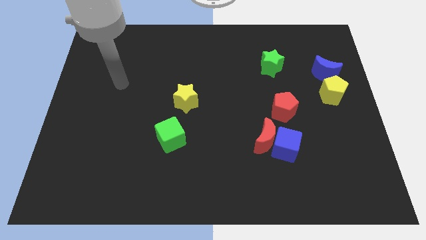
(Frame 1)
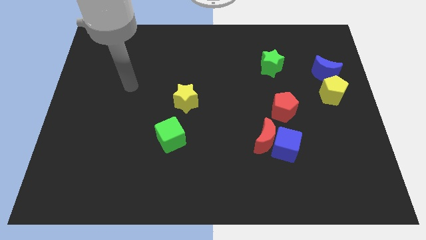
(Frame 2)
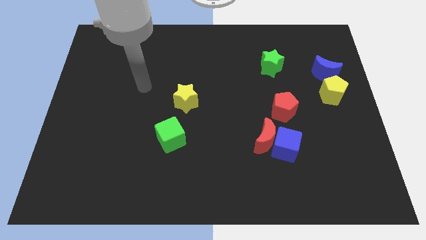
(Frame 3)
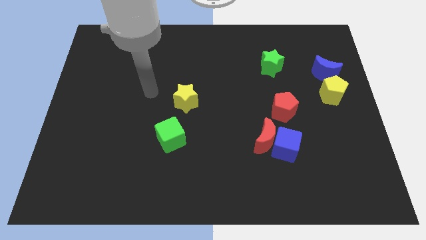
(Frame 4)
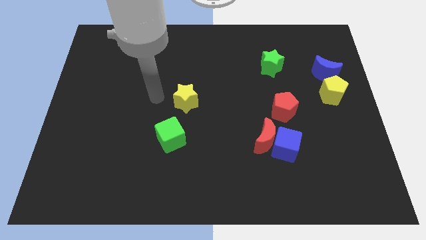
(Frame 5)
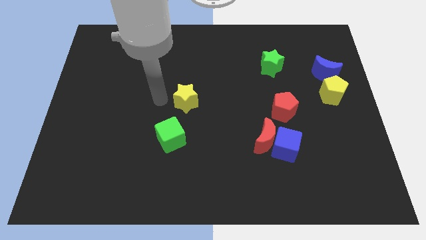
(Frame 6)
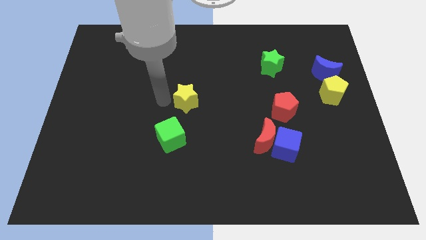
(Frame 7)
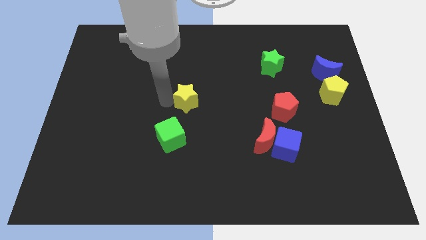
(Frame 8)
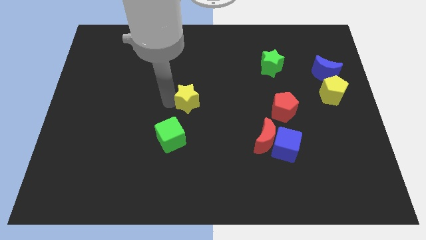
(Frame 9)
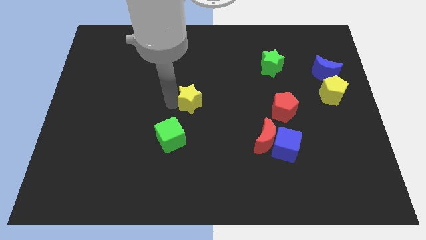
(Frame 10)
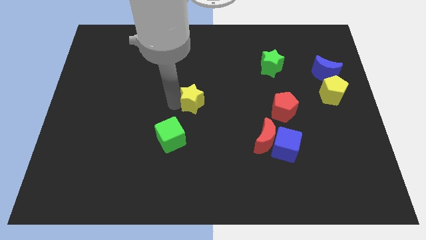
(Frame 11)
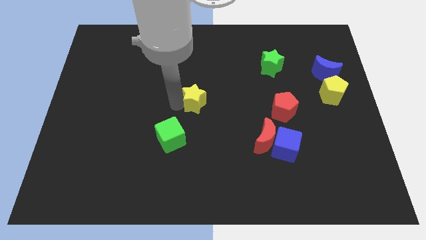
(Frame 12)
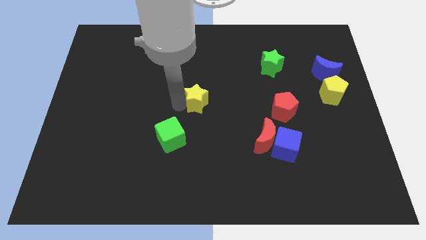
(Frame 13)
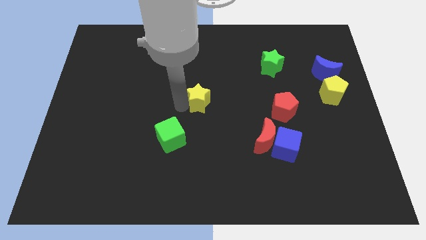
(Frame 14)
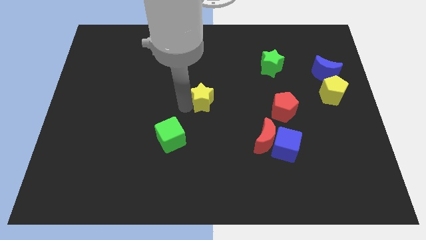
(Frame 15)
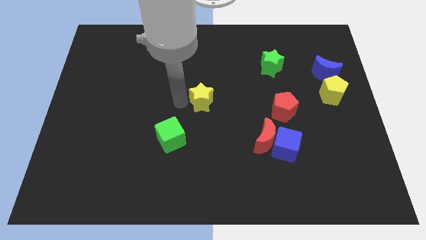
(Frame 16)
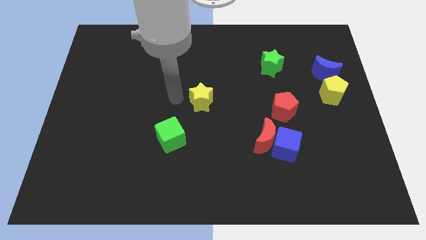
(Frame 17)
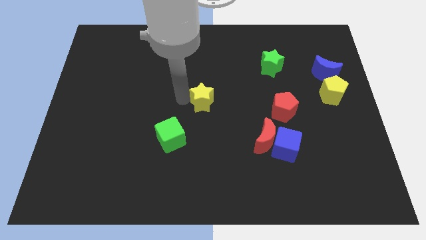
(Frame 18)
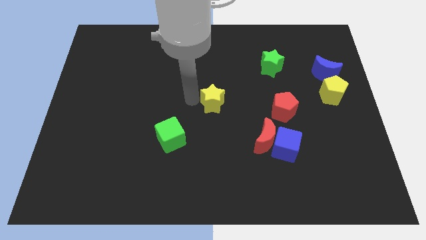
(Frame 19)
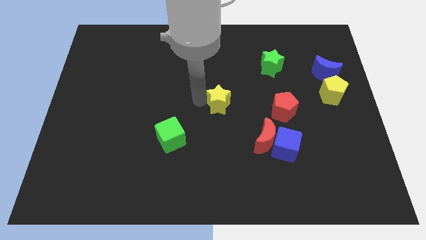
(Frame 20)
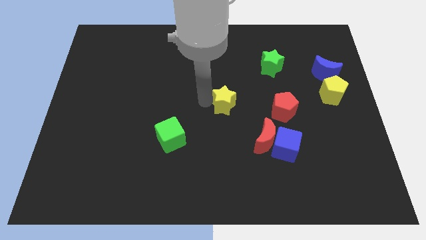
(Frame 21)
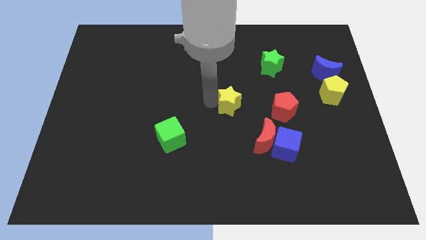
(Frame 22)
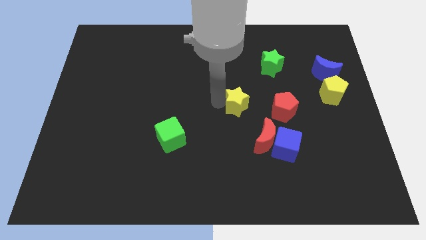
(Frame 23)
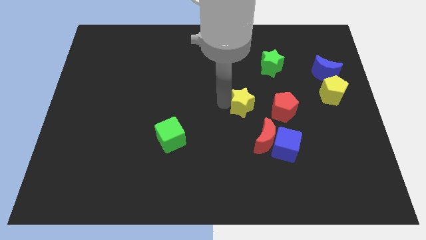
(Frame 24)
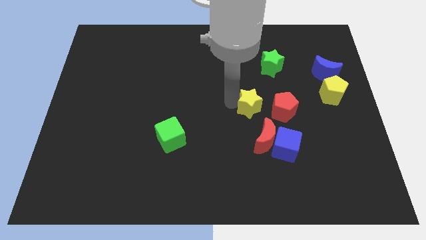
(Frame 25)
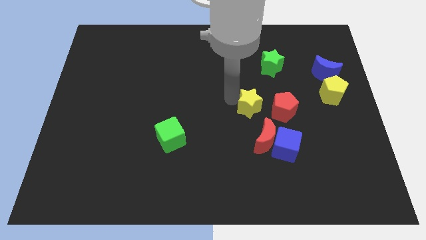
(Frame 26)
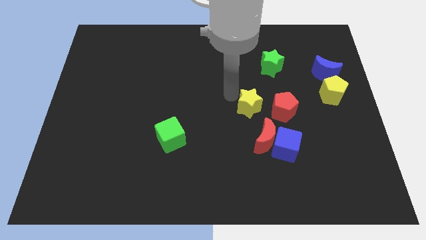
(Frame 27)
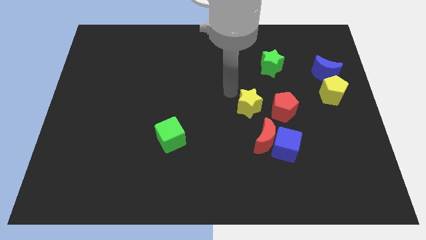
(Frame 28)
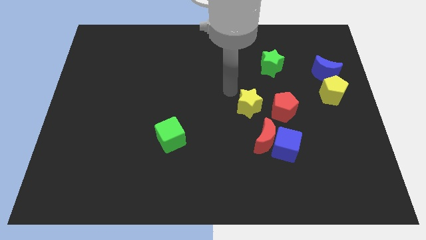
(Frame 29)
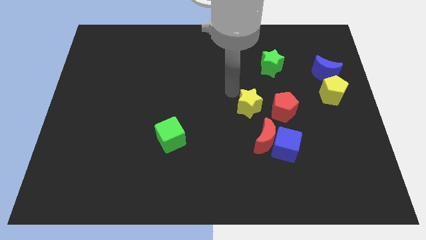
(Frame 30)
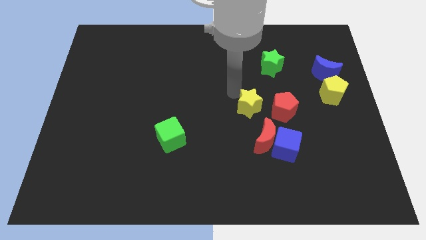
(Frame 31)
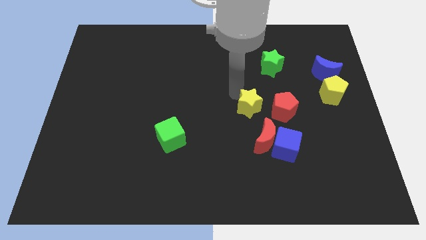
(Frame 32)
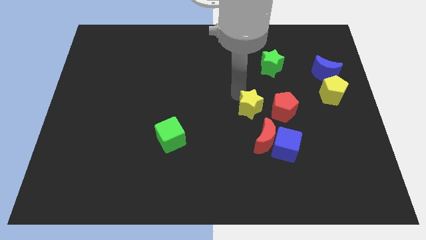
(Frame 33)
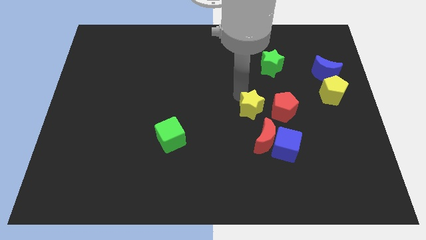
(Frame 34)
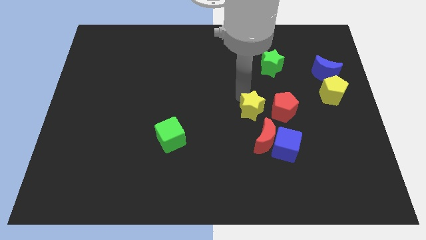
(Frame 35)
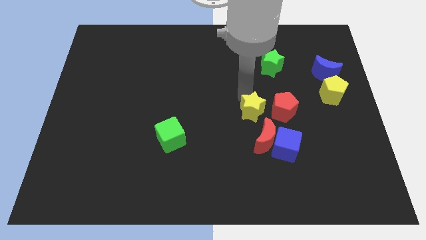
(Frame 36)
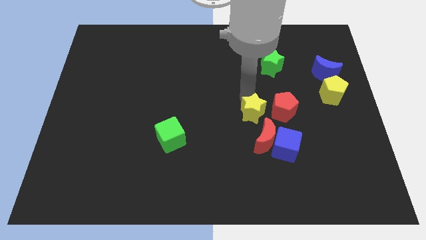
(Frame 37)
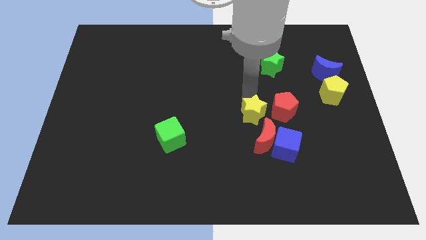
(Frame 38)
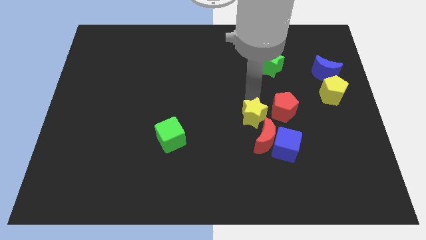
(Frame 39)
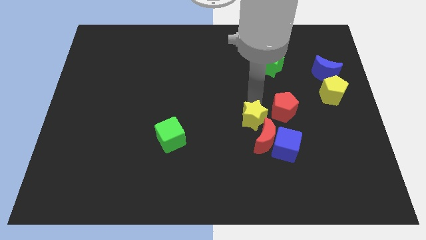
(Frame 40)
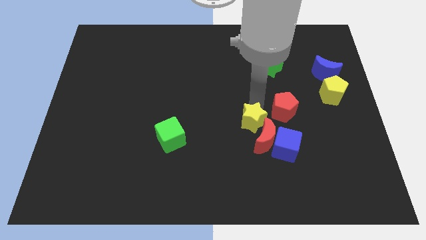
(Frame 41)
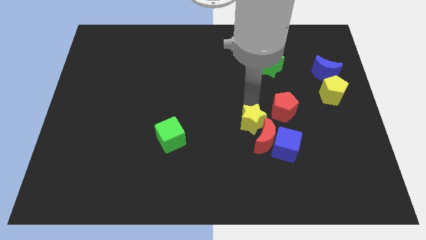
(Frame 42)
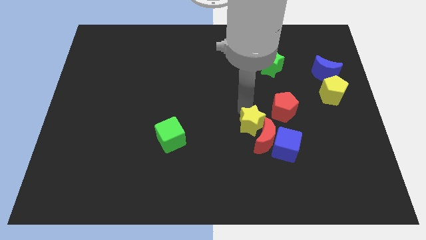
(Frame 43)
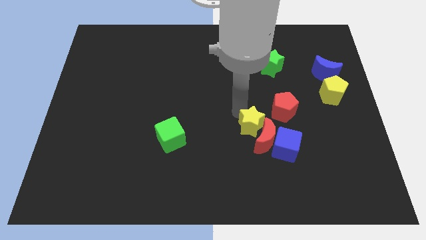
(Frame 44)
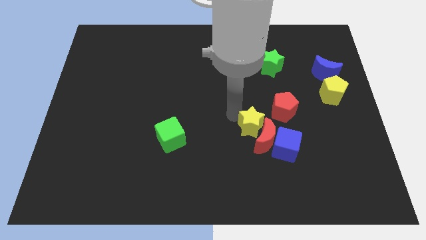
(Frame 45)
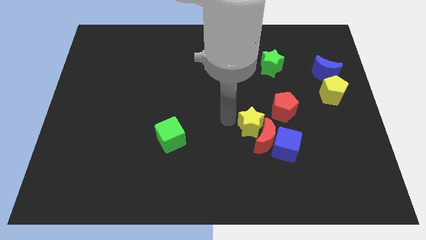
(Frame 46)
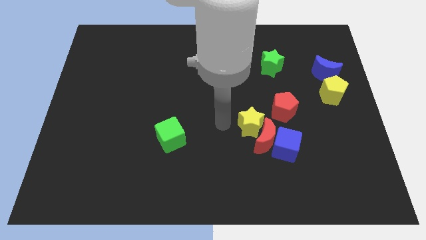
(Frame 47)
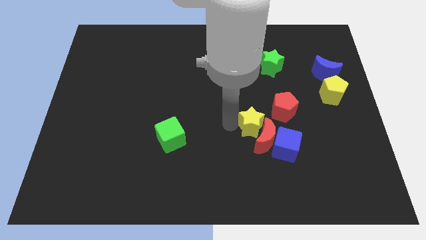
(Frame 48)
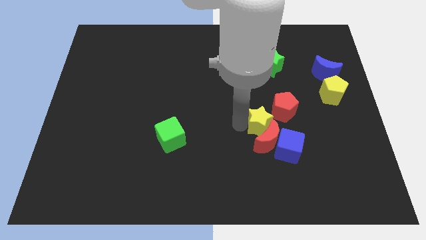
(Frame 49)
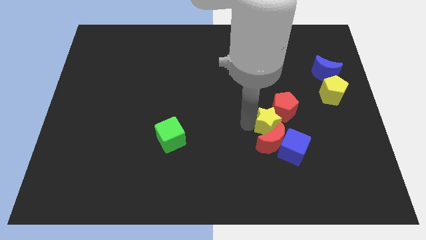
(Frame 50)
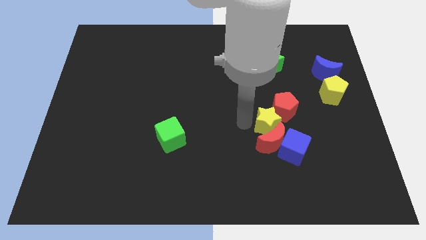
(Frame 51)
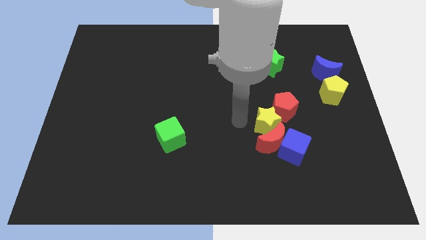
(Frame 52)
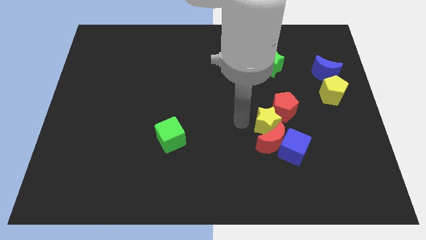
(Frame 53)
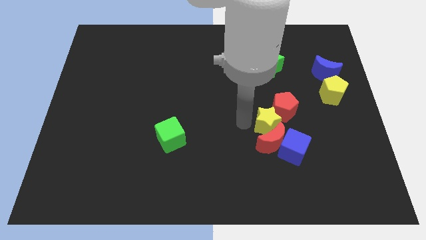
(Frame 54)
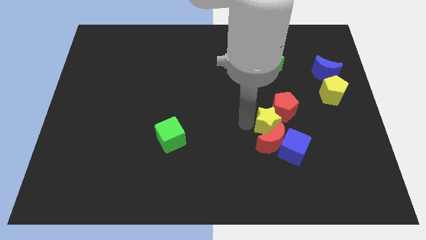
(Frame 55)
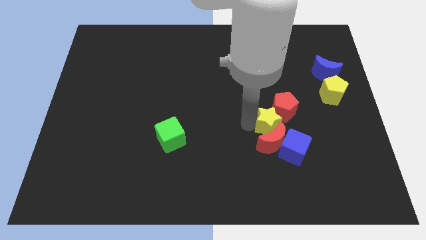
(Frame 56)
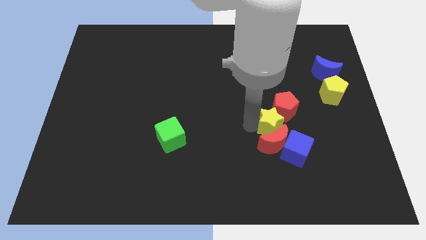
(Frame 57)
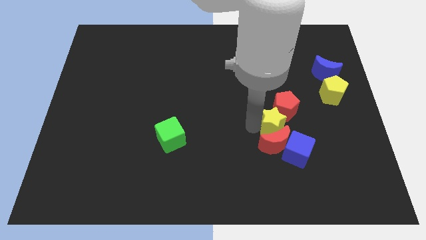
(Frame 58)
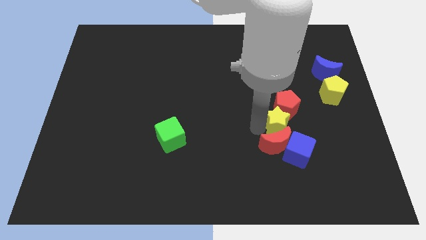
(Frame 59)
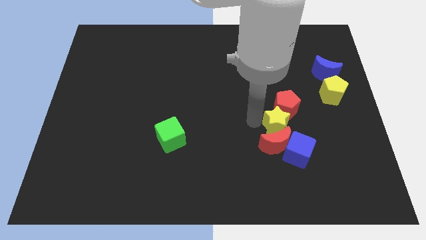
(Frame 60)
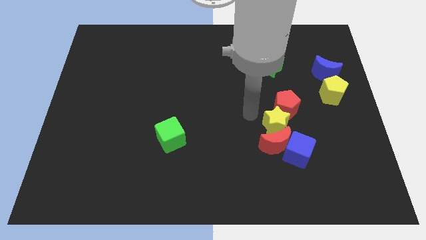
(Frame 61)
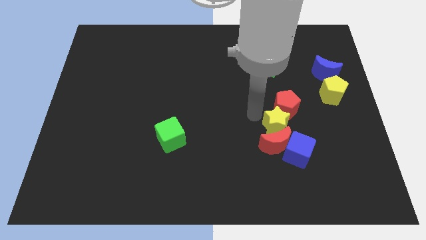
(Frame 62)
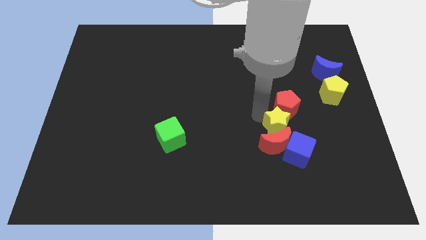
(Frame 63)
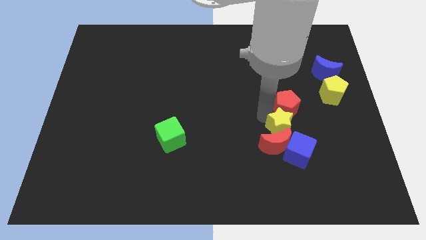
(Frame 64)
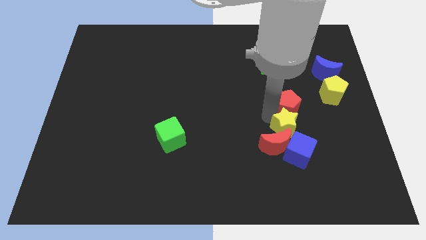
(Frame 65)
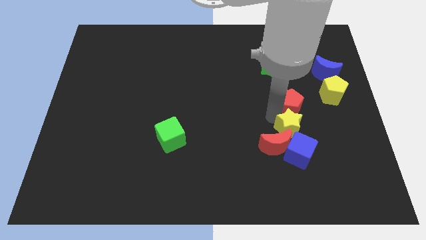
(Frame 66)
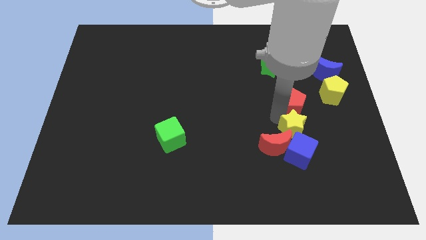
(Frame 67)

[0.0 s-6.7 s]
put the yellow star just right of the red moon
